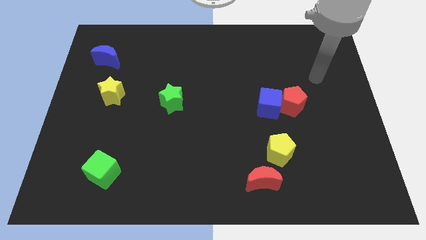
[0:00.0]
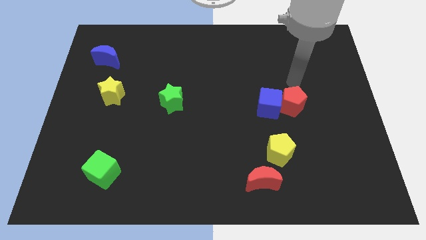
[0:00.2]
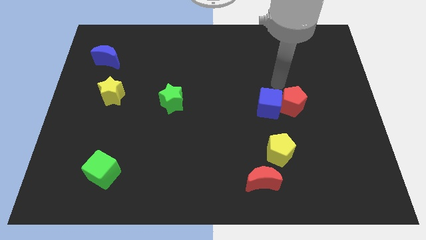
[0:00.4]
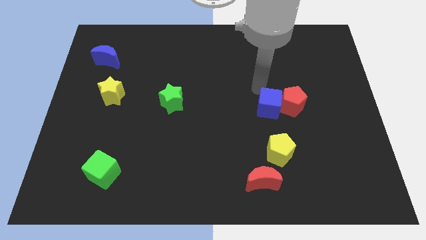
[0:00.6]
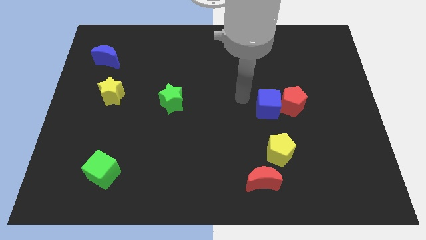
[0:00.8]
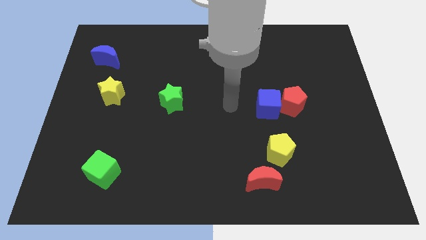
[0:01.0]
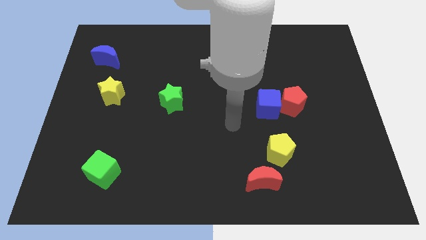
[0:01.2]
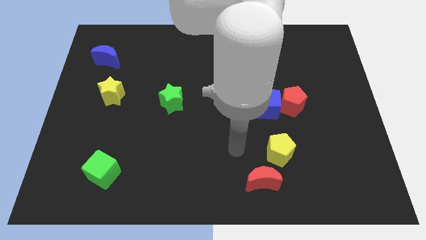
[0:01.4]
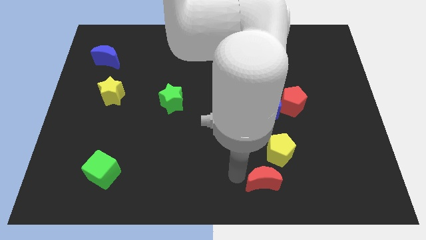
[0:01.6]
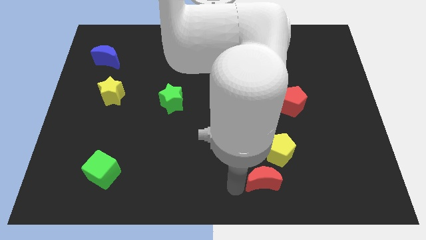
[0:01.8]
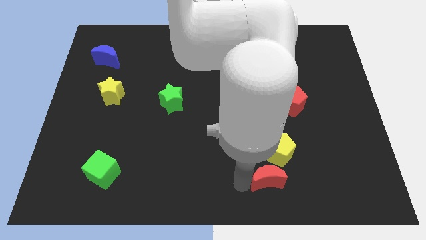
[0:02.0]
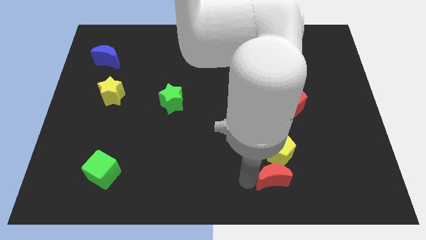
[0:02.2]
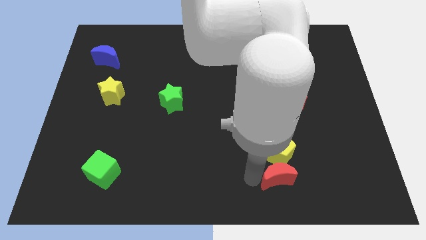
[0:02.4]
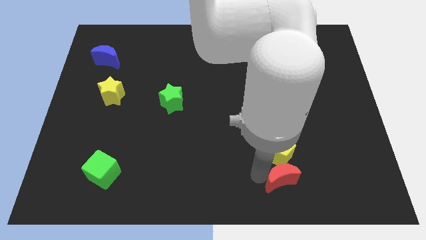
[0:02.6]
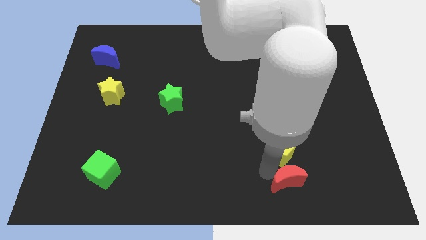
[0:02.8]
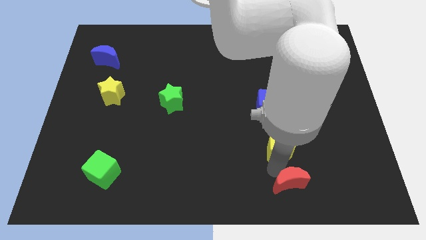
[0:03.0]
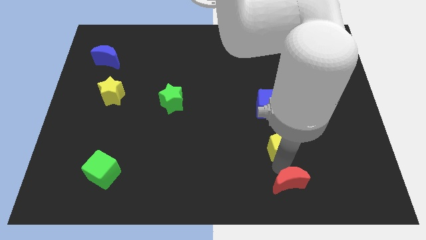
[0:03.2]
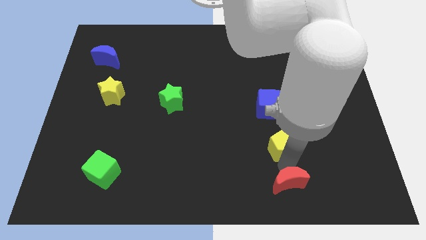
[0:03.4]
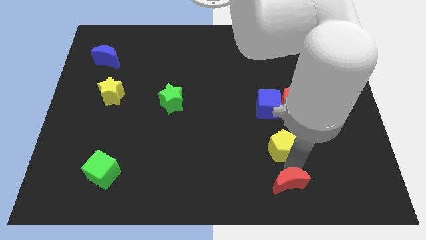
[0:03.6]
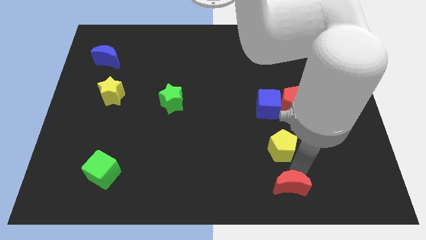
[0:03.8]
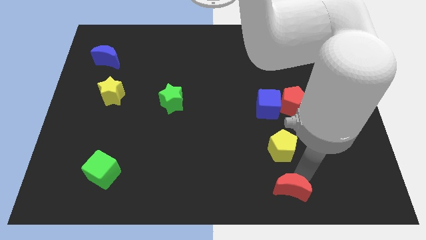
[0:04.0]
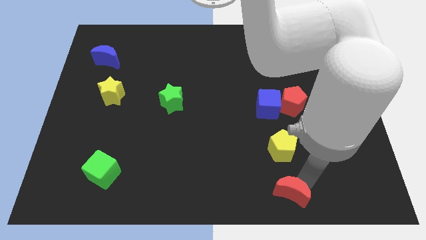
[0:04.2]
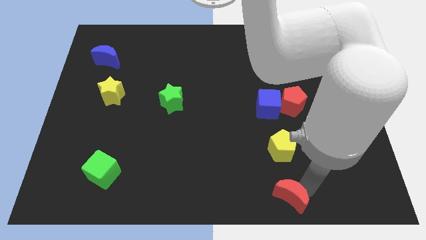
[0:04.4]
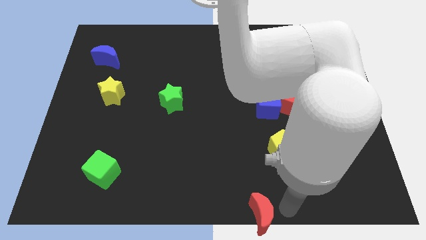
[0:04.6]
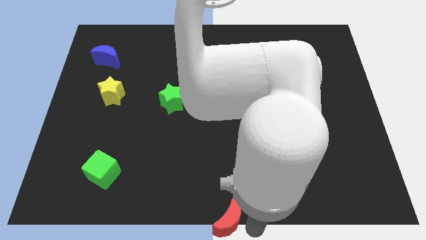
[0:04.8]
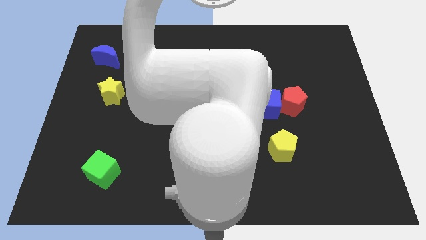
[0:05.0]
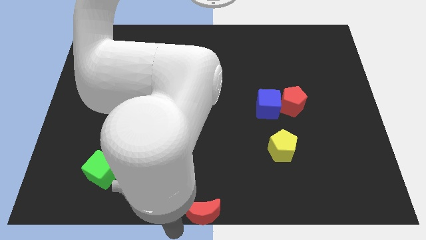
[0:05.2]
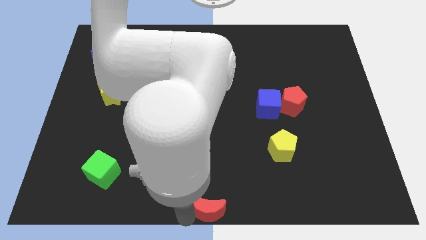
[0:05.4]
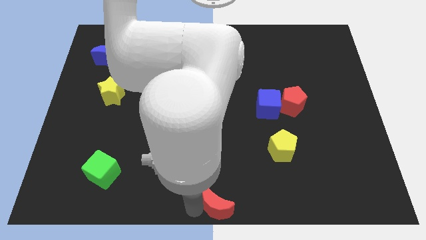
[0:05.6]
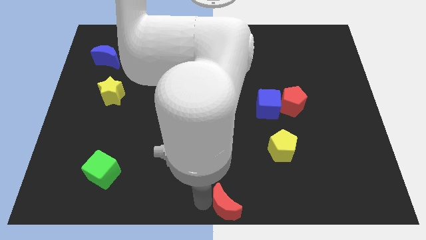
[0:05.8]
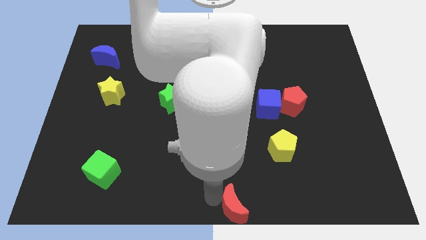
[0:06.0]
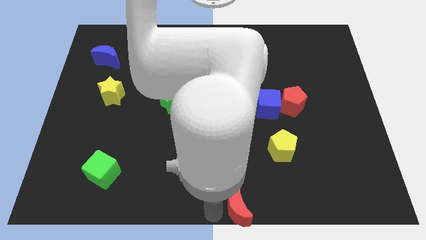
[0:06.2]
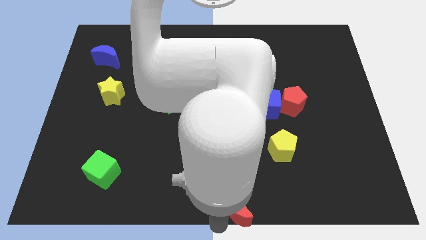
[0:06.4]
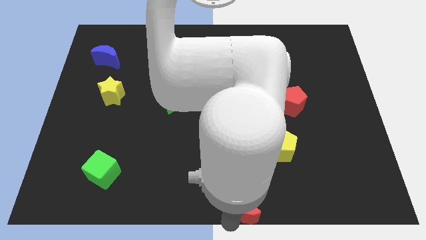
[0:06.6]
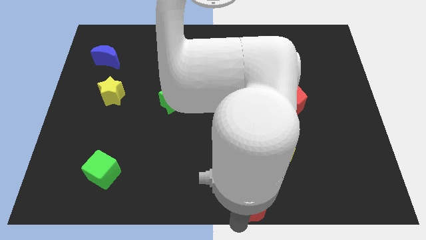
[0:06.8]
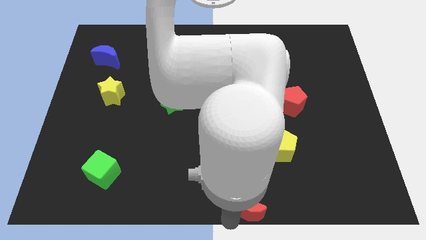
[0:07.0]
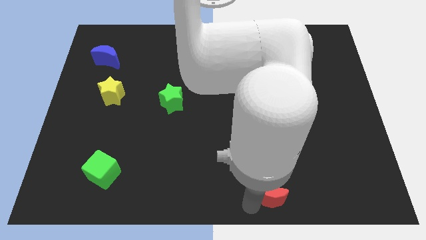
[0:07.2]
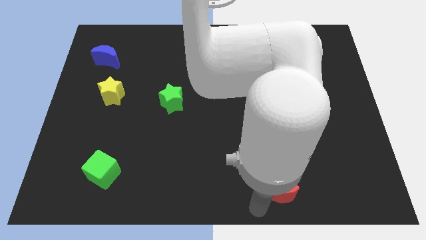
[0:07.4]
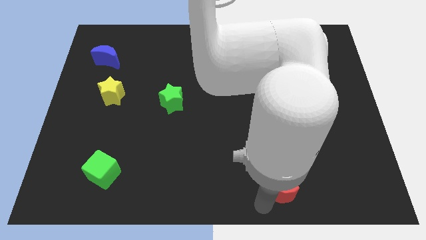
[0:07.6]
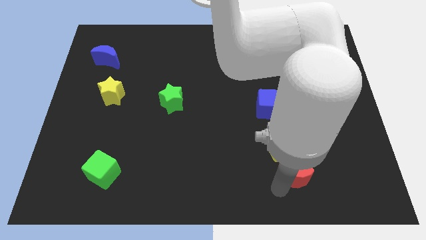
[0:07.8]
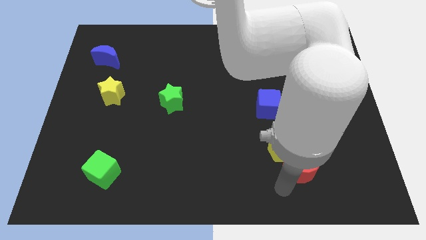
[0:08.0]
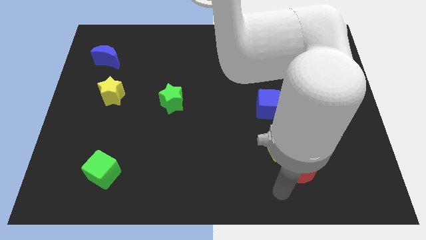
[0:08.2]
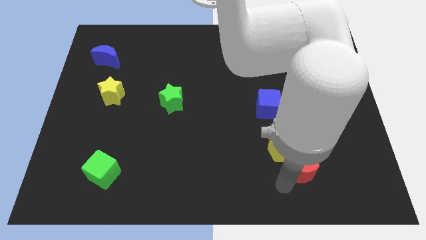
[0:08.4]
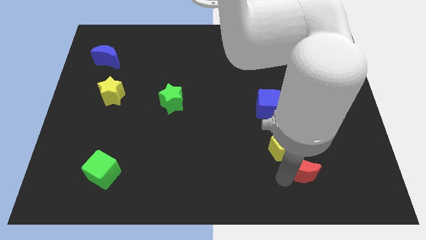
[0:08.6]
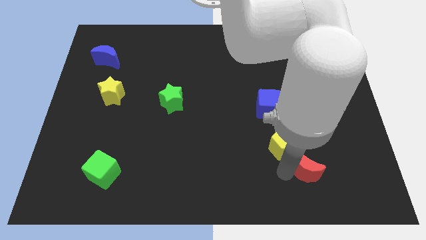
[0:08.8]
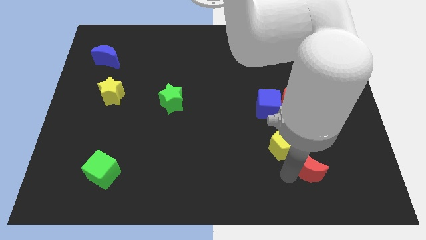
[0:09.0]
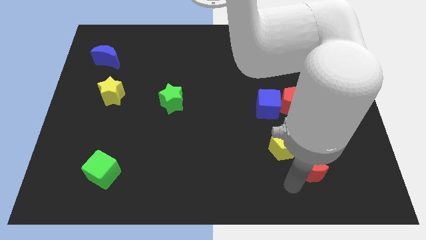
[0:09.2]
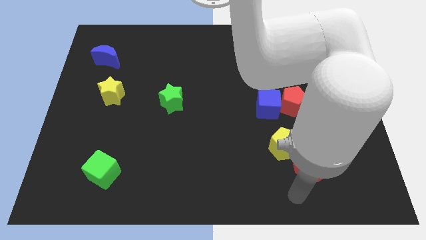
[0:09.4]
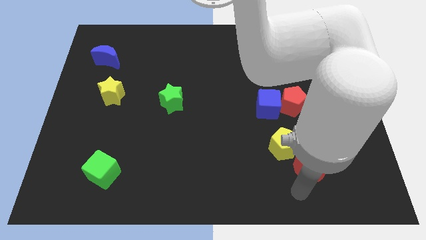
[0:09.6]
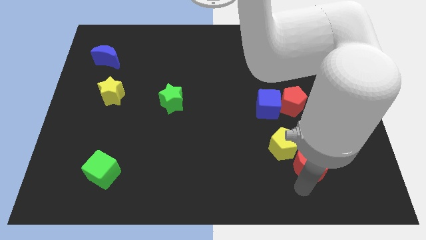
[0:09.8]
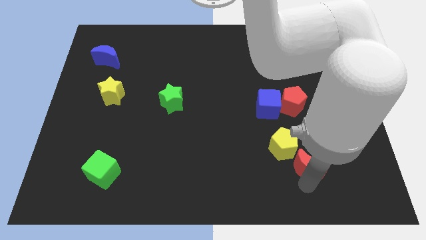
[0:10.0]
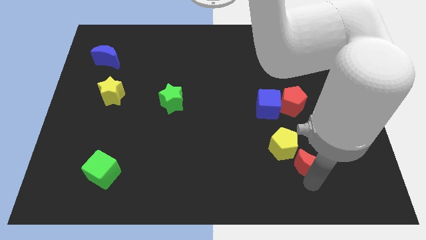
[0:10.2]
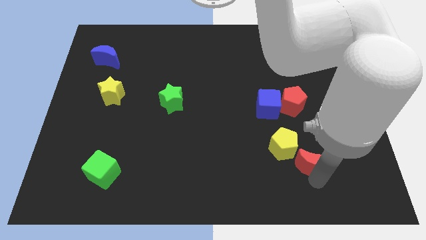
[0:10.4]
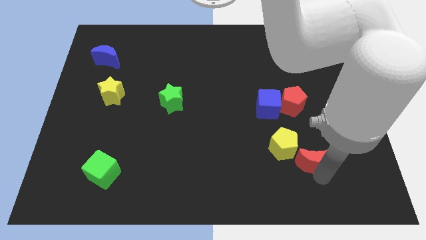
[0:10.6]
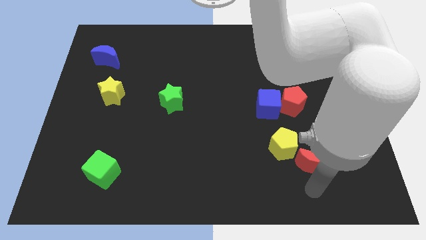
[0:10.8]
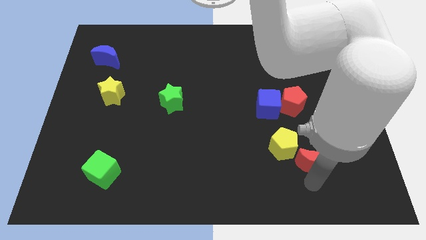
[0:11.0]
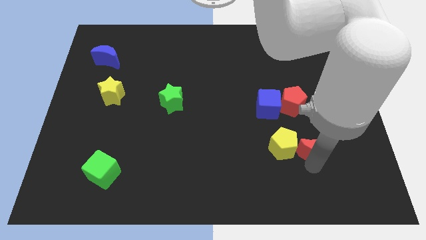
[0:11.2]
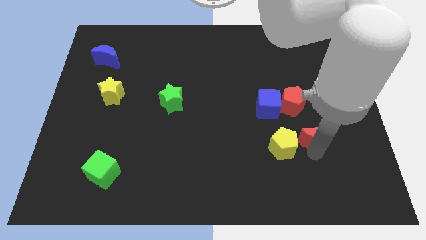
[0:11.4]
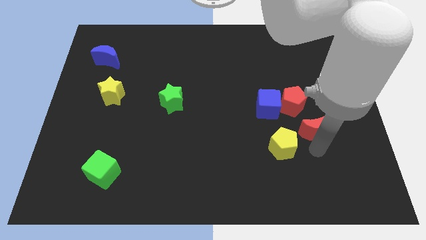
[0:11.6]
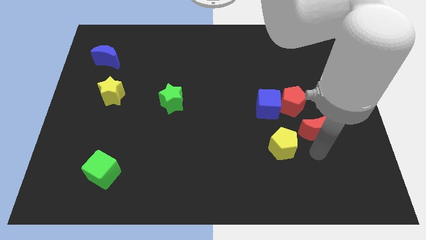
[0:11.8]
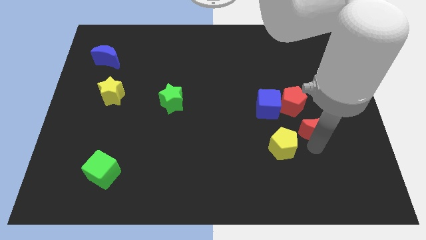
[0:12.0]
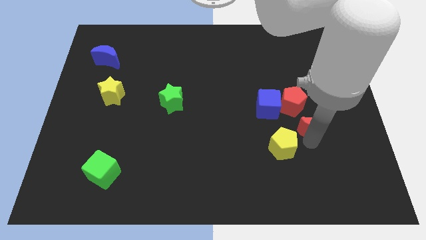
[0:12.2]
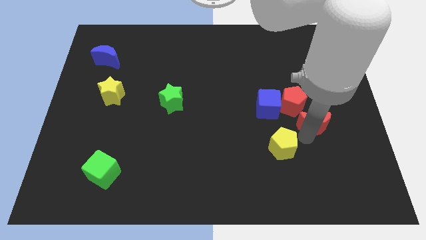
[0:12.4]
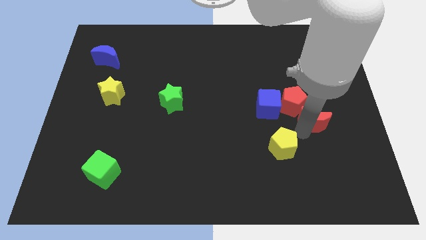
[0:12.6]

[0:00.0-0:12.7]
move the red moon right of the blue cube

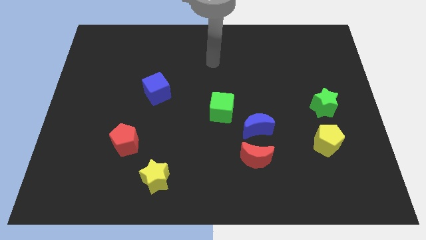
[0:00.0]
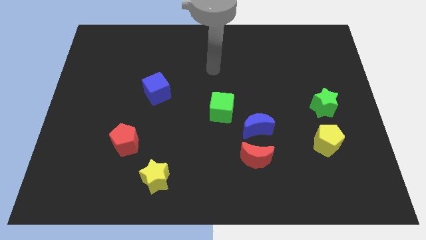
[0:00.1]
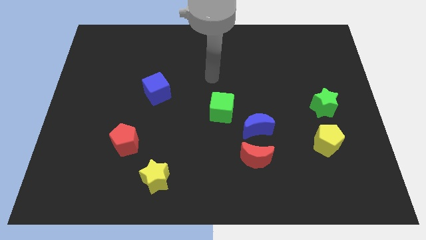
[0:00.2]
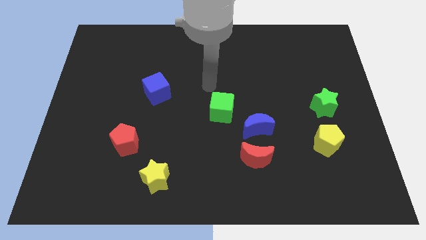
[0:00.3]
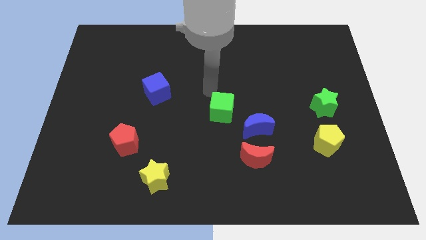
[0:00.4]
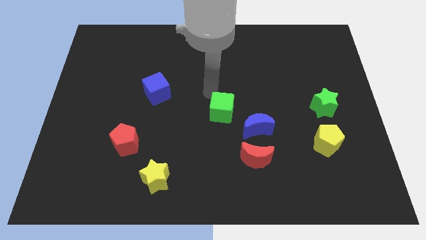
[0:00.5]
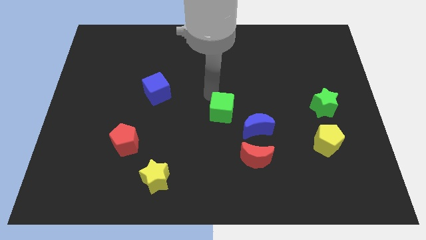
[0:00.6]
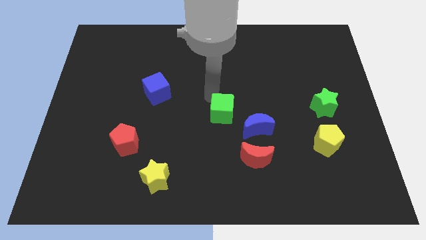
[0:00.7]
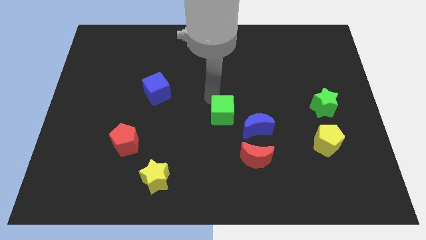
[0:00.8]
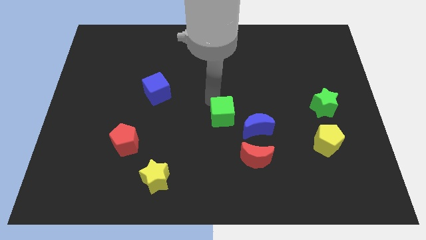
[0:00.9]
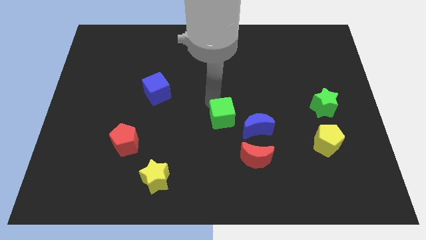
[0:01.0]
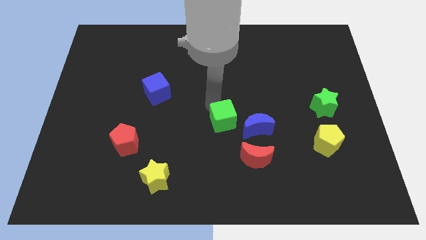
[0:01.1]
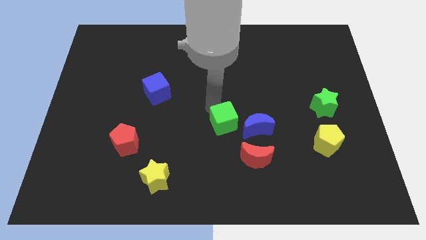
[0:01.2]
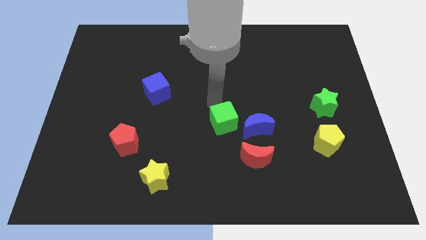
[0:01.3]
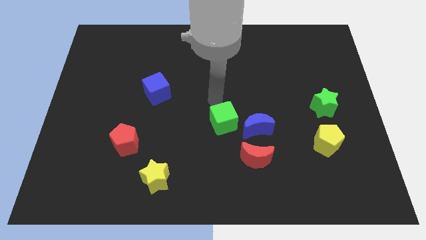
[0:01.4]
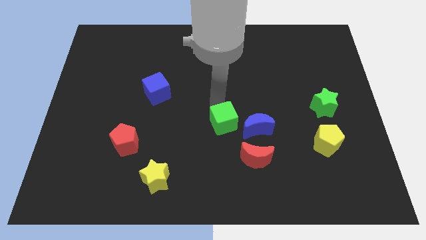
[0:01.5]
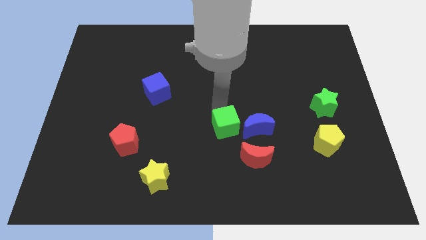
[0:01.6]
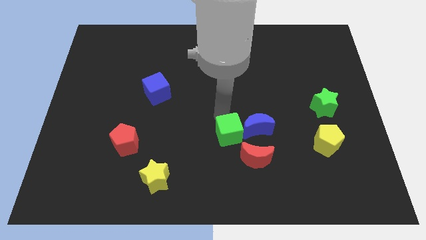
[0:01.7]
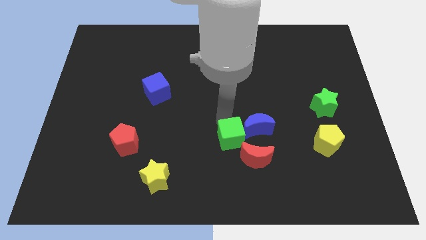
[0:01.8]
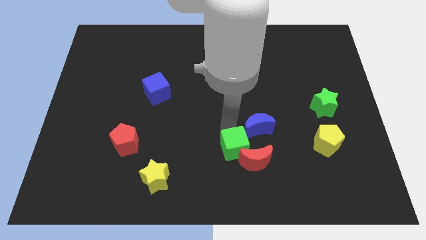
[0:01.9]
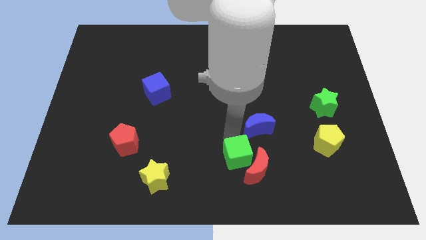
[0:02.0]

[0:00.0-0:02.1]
push the green cube below the blue moon
